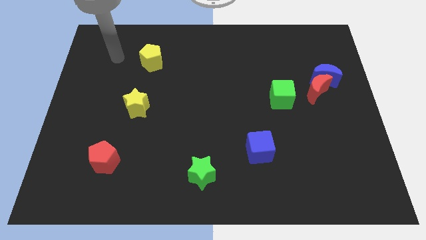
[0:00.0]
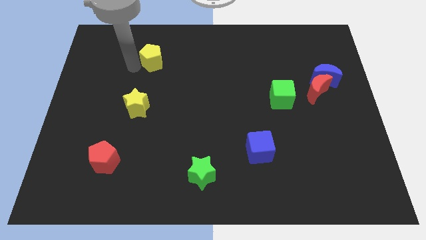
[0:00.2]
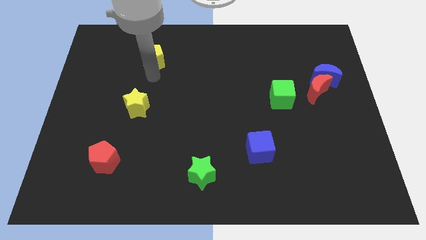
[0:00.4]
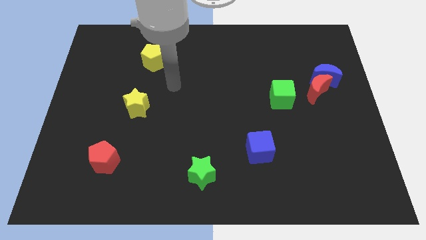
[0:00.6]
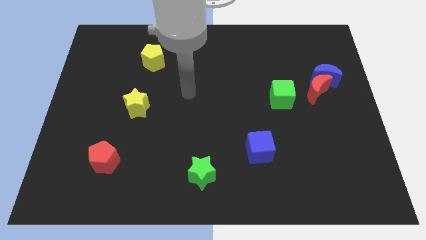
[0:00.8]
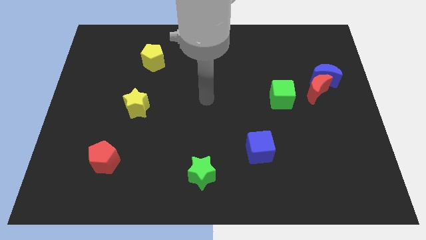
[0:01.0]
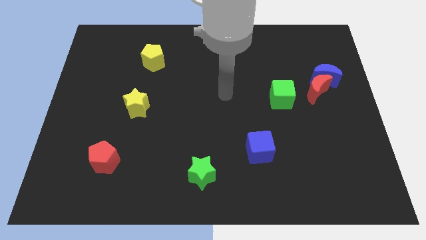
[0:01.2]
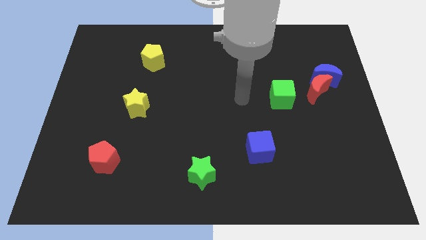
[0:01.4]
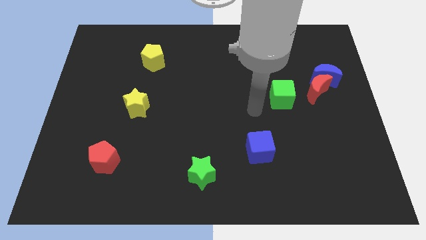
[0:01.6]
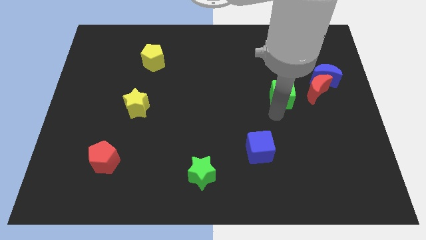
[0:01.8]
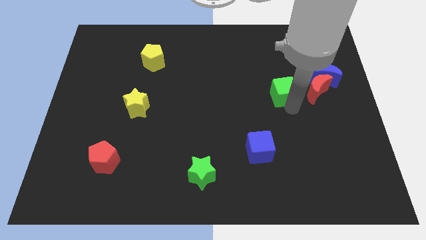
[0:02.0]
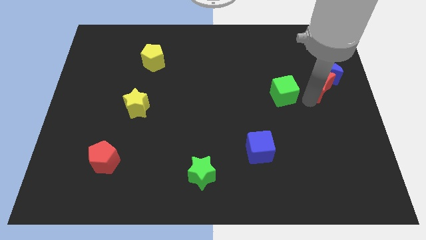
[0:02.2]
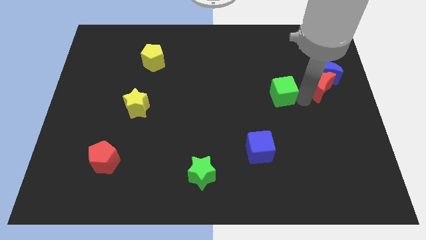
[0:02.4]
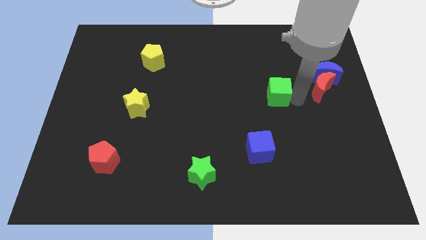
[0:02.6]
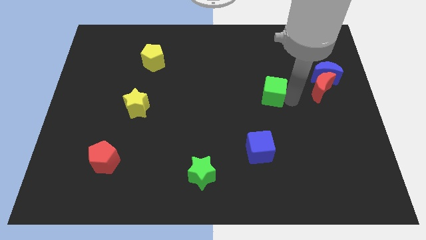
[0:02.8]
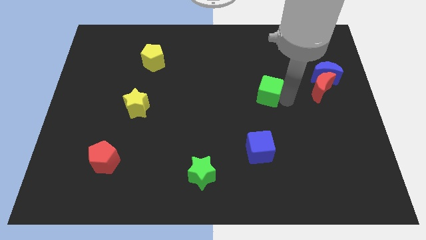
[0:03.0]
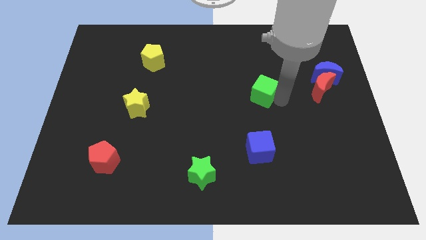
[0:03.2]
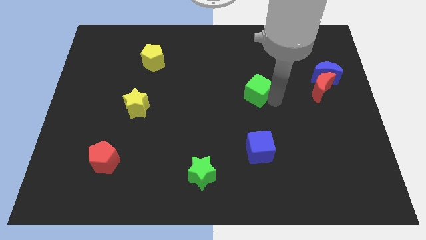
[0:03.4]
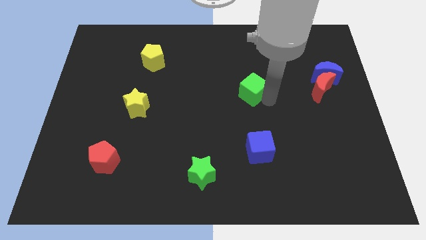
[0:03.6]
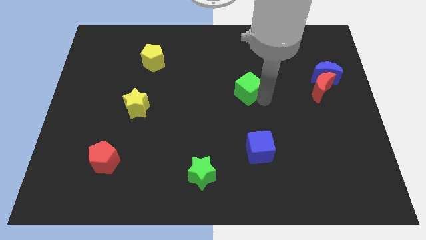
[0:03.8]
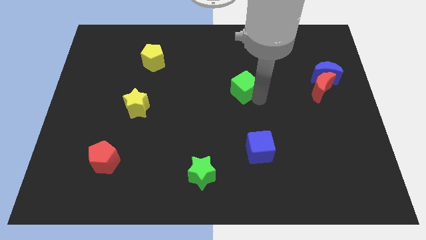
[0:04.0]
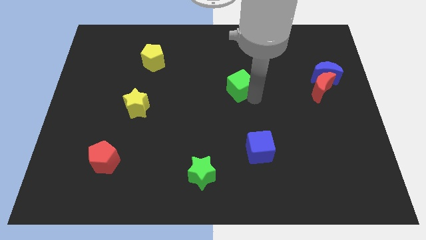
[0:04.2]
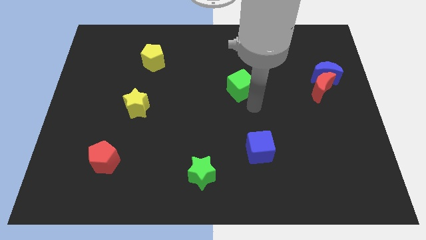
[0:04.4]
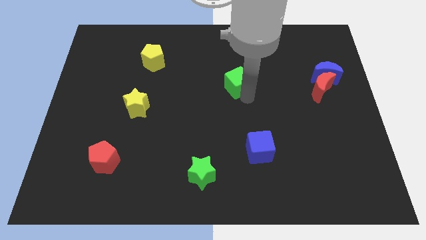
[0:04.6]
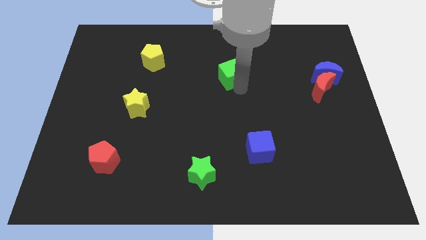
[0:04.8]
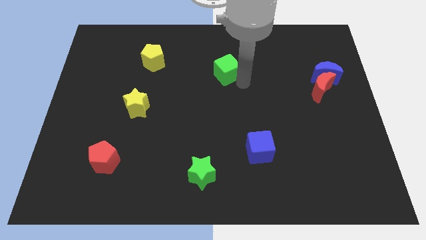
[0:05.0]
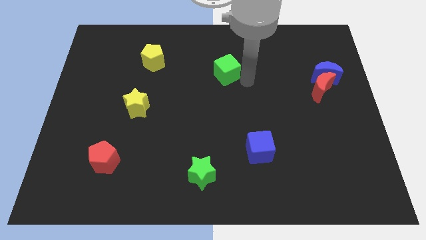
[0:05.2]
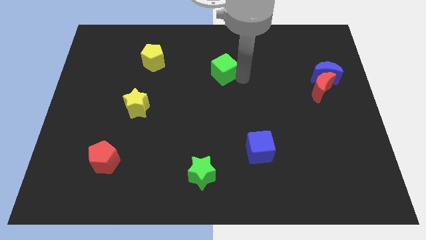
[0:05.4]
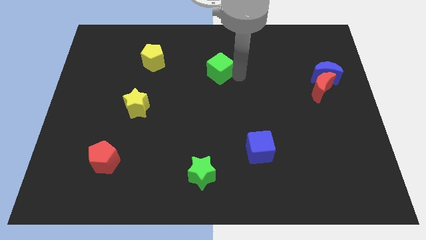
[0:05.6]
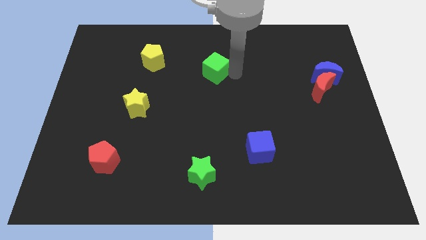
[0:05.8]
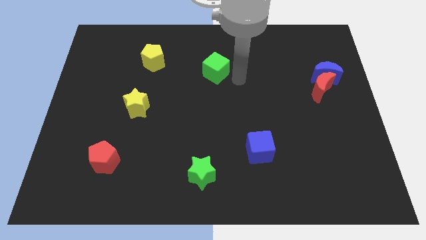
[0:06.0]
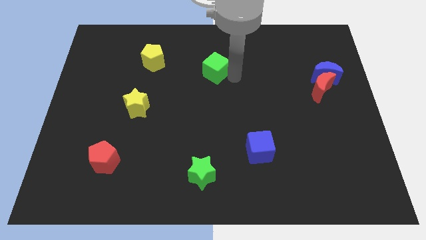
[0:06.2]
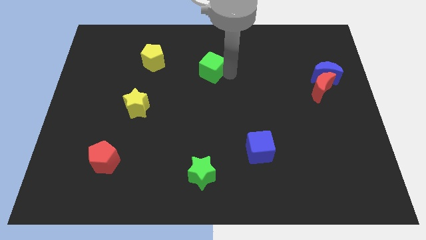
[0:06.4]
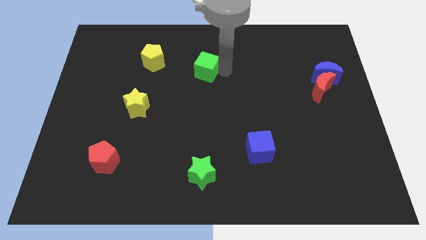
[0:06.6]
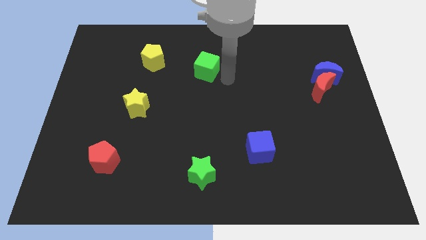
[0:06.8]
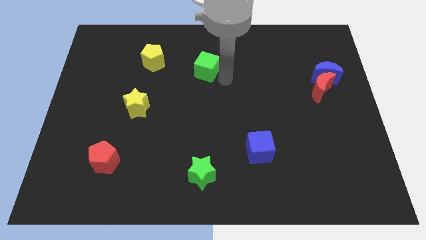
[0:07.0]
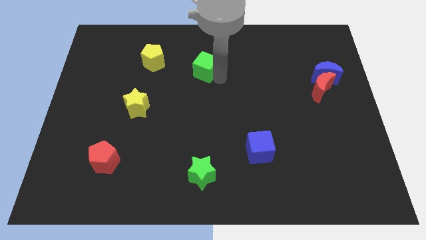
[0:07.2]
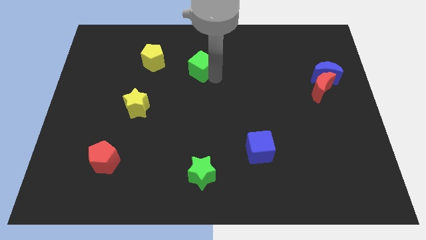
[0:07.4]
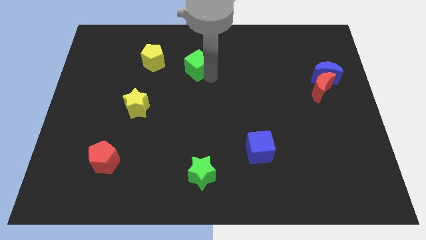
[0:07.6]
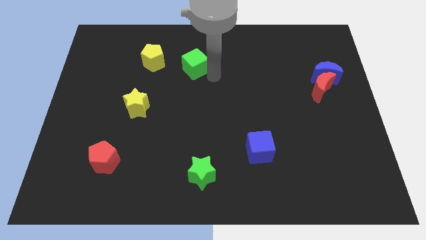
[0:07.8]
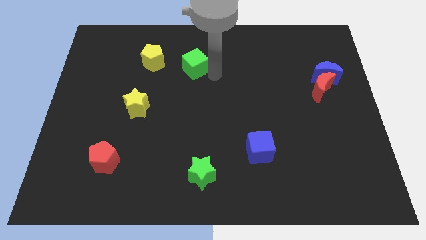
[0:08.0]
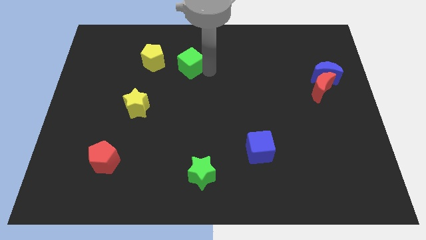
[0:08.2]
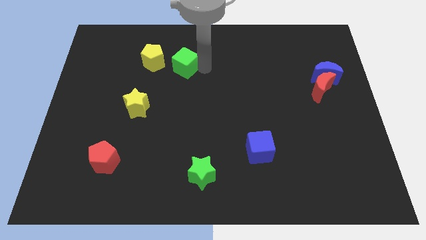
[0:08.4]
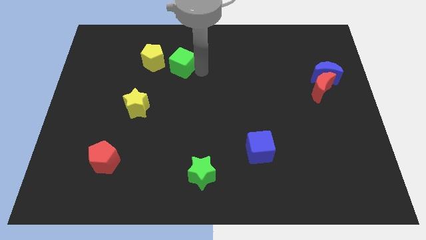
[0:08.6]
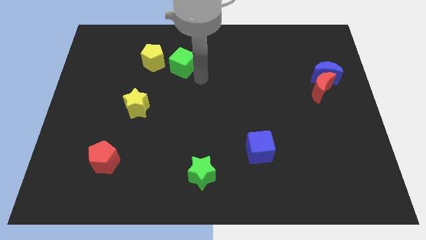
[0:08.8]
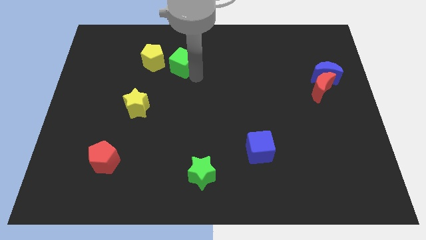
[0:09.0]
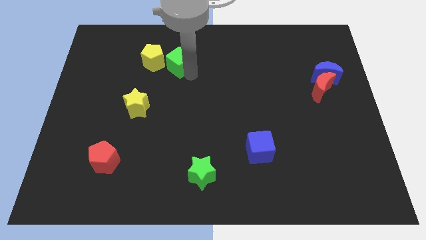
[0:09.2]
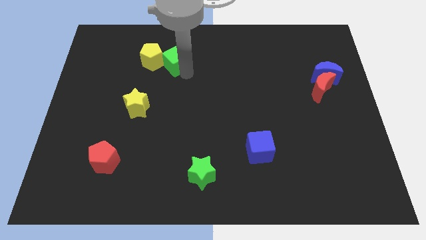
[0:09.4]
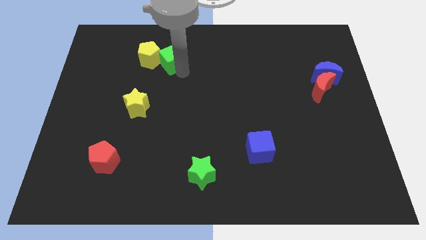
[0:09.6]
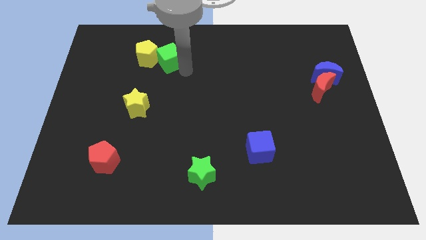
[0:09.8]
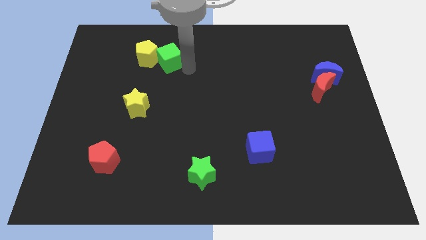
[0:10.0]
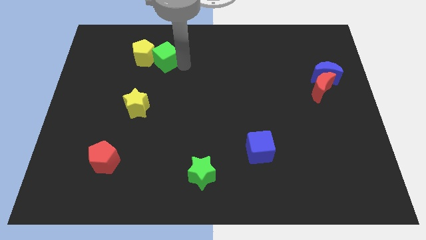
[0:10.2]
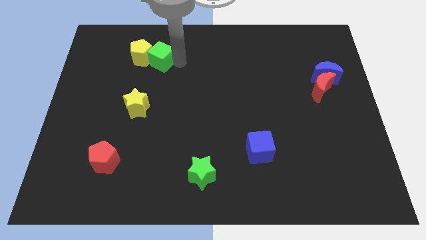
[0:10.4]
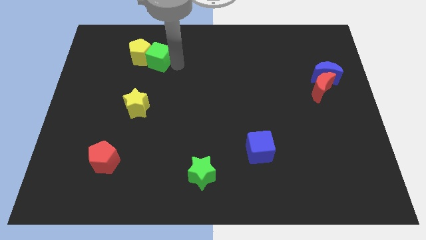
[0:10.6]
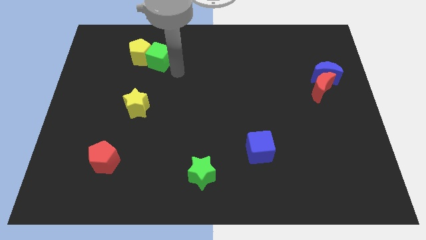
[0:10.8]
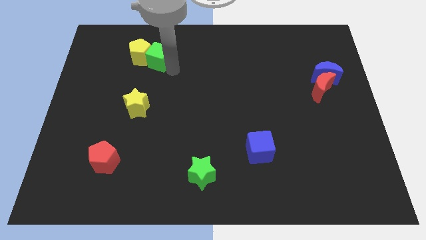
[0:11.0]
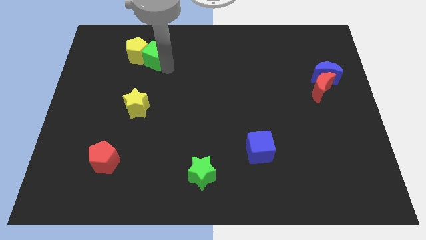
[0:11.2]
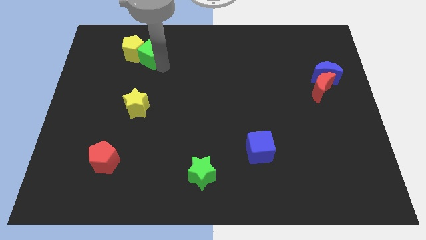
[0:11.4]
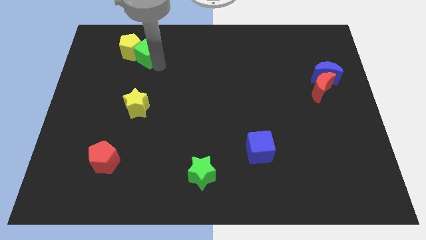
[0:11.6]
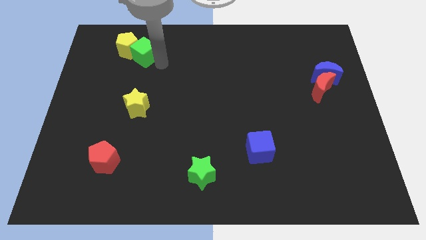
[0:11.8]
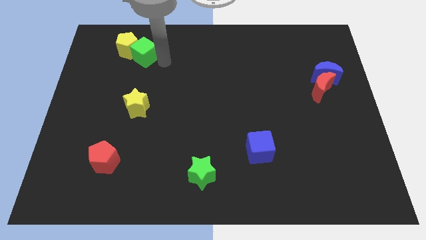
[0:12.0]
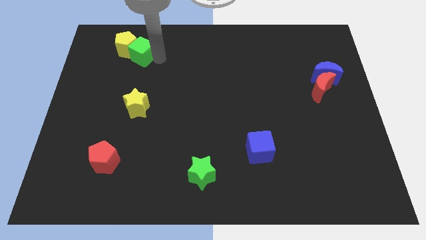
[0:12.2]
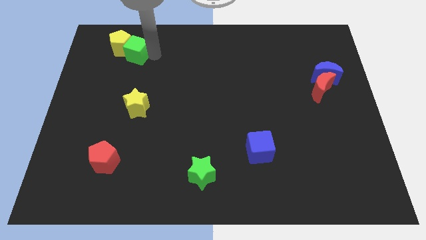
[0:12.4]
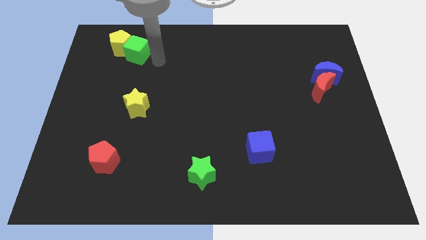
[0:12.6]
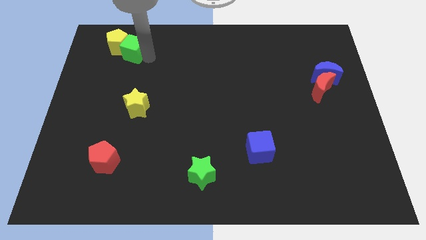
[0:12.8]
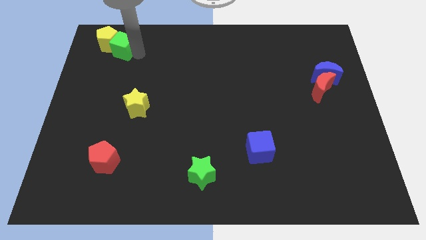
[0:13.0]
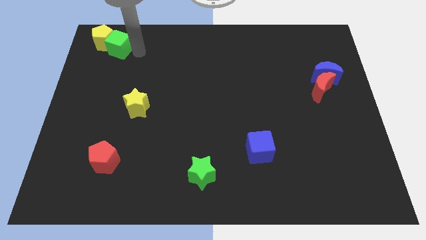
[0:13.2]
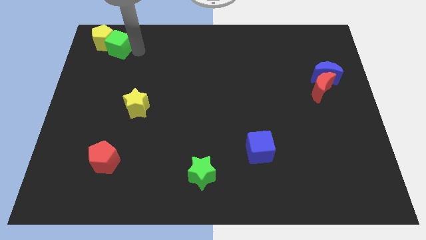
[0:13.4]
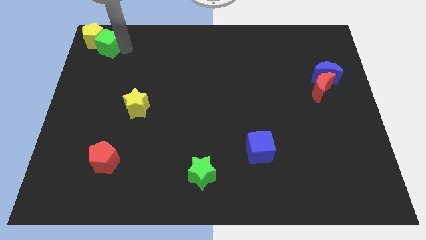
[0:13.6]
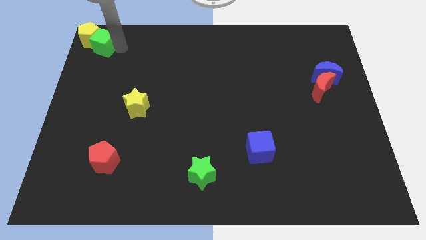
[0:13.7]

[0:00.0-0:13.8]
move the green cube to the upper left corner
